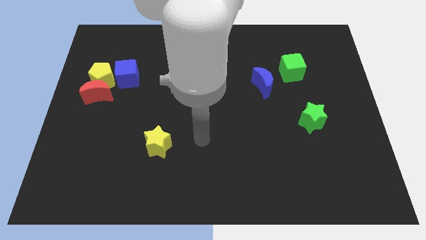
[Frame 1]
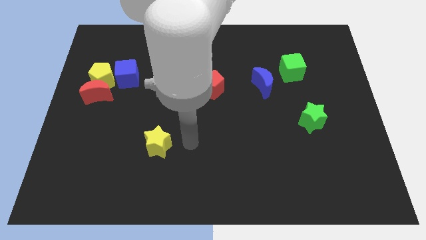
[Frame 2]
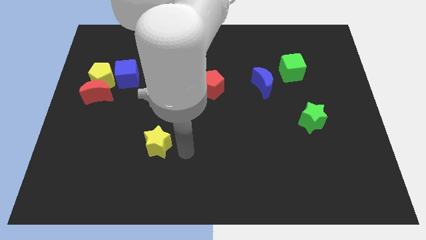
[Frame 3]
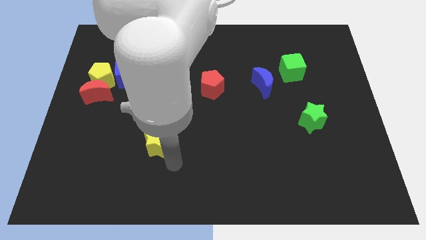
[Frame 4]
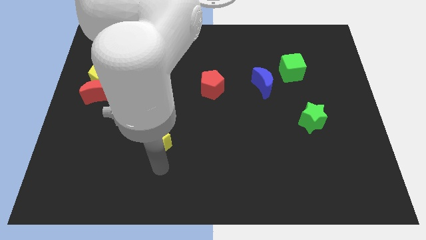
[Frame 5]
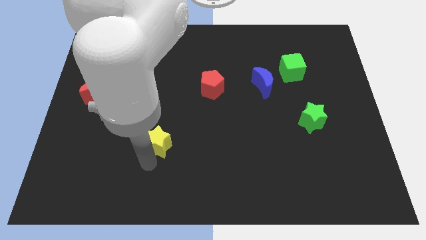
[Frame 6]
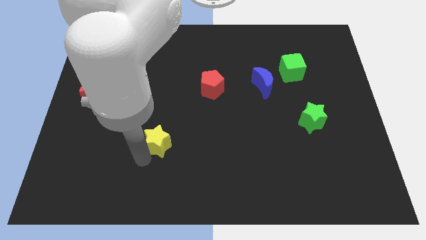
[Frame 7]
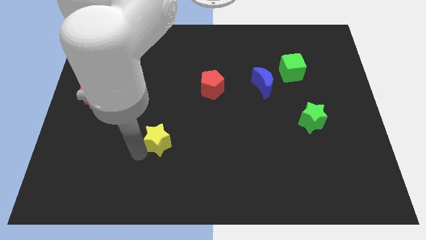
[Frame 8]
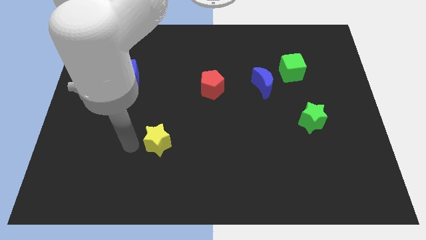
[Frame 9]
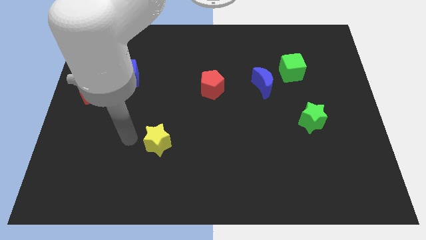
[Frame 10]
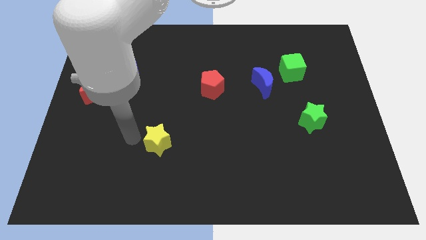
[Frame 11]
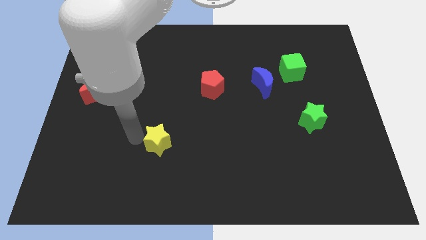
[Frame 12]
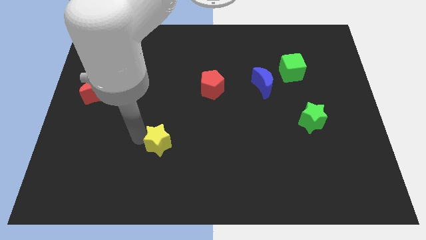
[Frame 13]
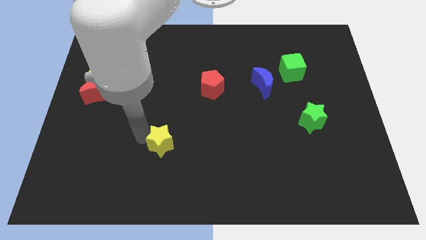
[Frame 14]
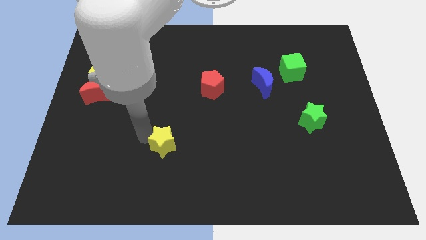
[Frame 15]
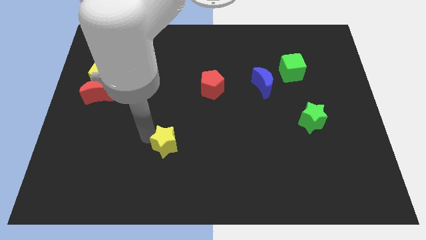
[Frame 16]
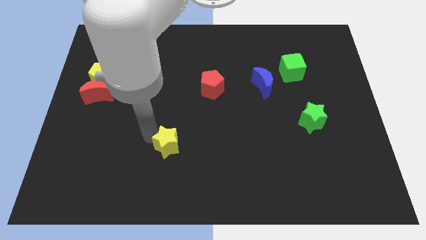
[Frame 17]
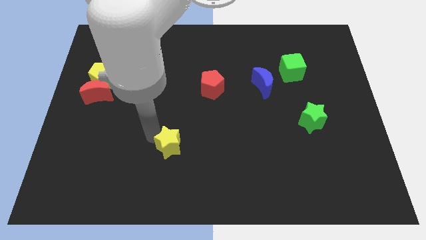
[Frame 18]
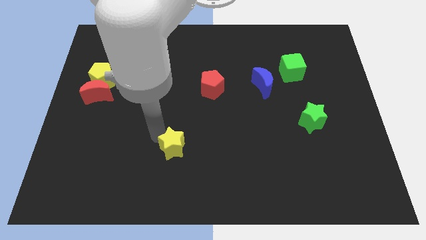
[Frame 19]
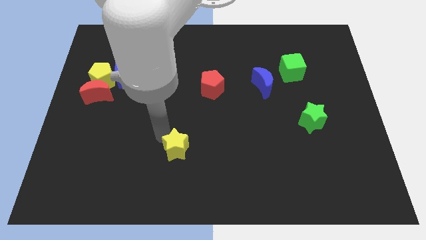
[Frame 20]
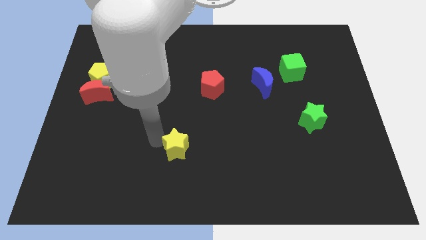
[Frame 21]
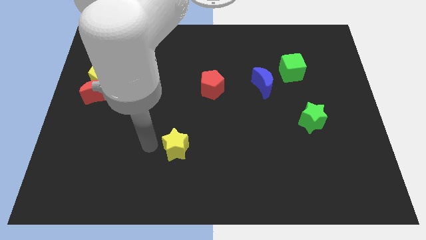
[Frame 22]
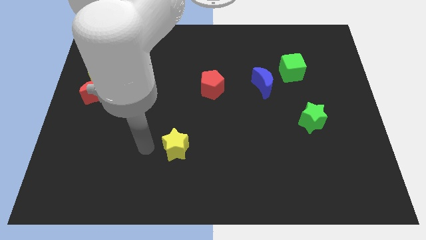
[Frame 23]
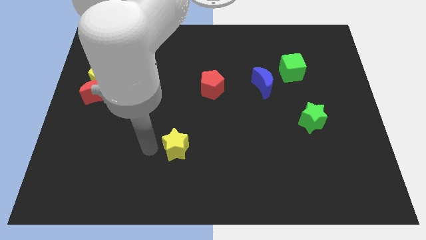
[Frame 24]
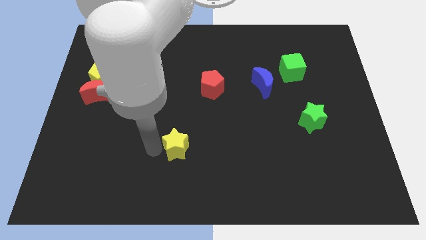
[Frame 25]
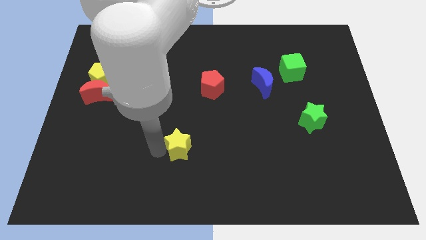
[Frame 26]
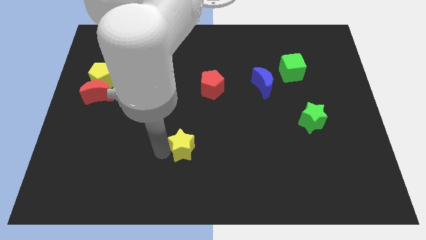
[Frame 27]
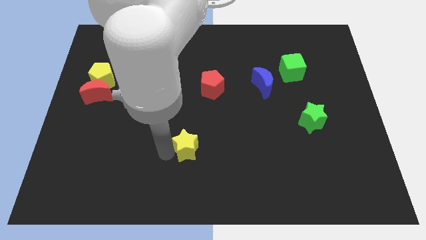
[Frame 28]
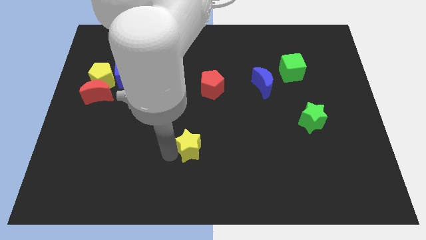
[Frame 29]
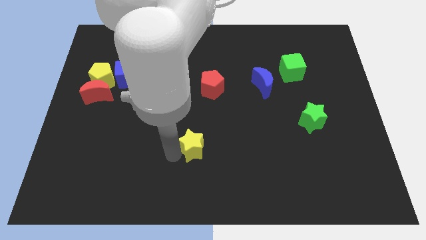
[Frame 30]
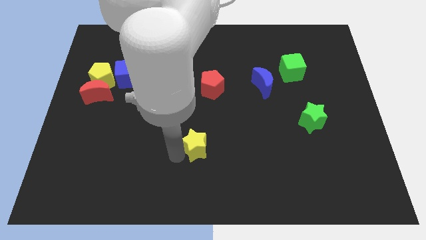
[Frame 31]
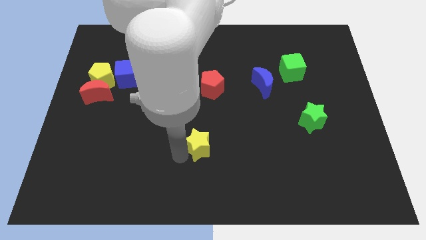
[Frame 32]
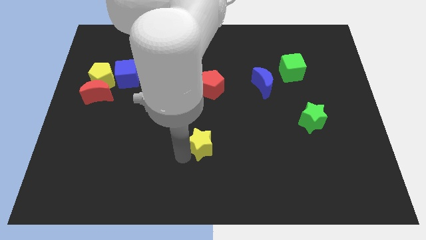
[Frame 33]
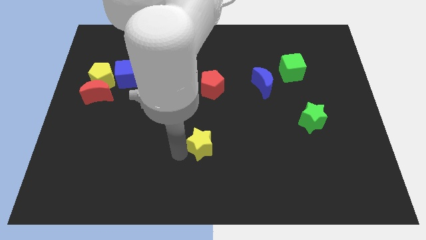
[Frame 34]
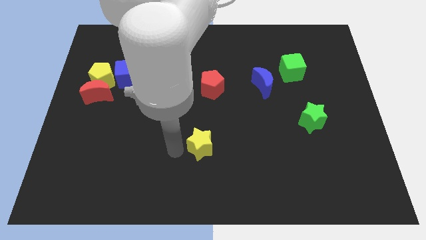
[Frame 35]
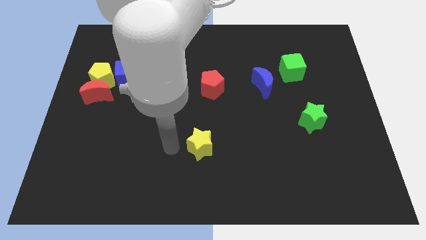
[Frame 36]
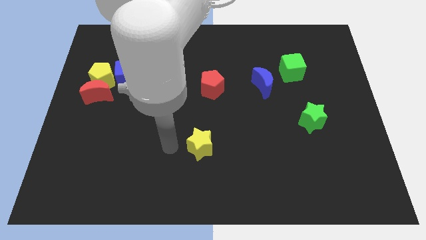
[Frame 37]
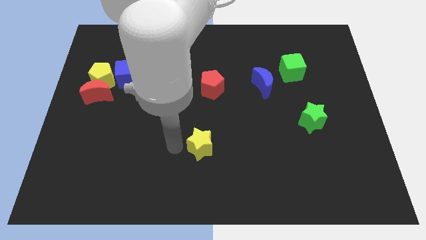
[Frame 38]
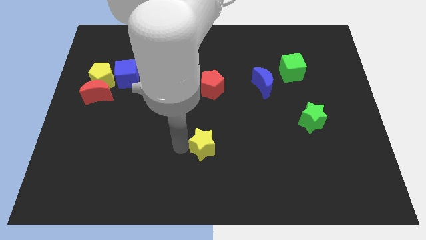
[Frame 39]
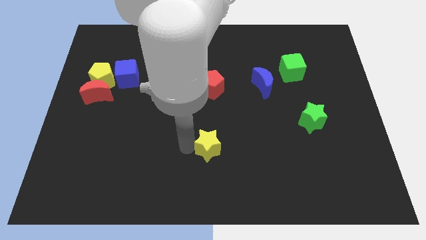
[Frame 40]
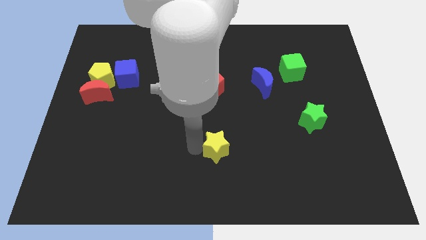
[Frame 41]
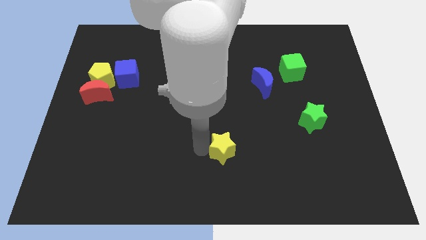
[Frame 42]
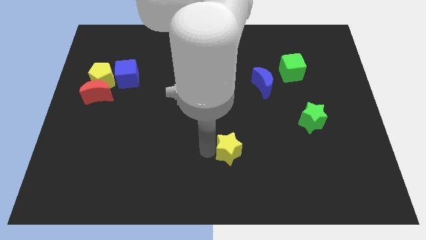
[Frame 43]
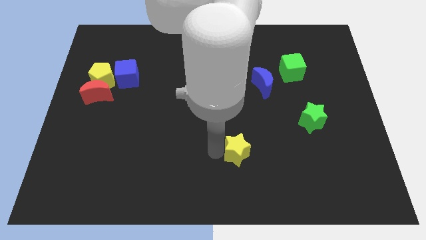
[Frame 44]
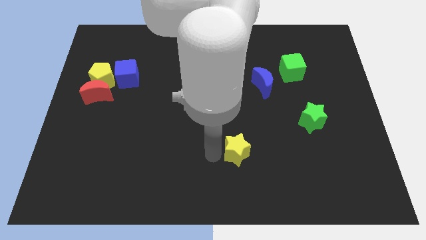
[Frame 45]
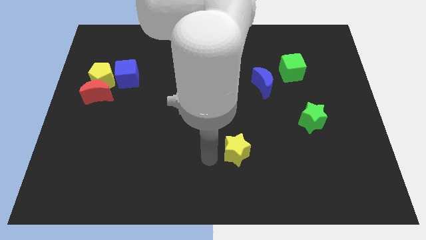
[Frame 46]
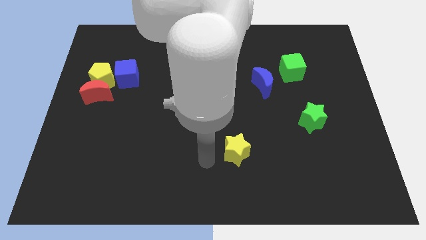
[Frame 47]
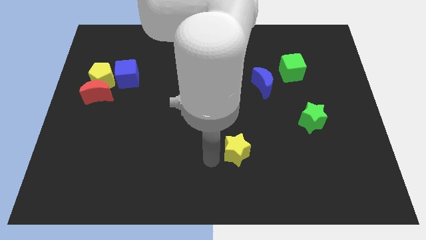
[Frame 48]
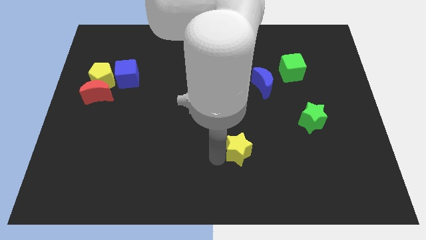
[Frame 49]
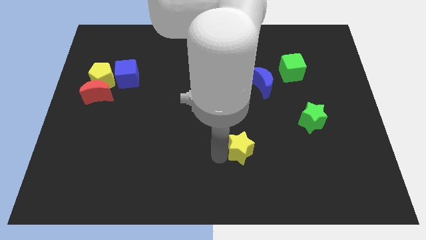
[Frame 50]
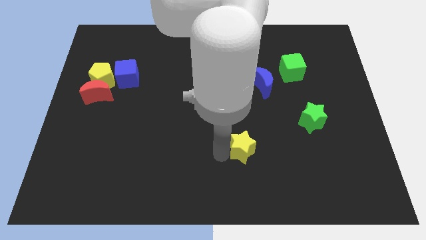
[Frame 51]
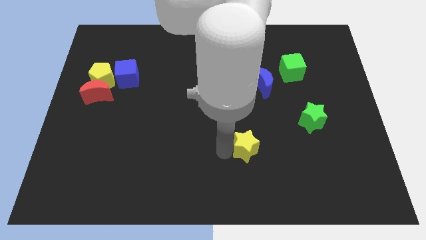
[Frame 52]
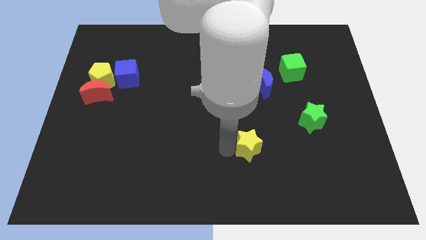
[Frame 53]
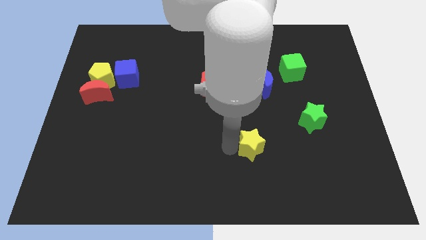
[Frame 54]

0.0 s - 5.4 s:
push the yellow star right

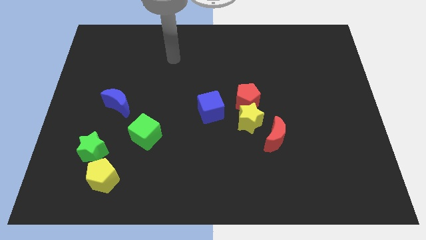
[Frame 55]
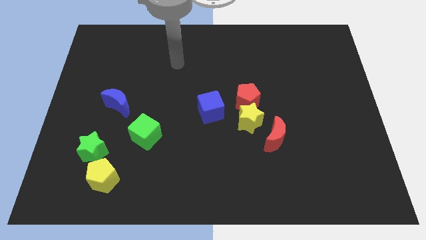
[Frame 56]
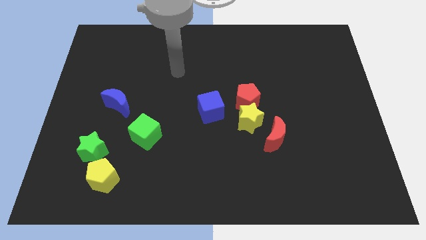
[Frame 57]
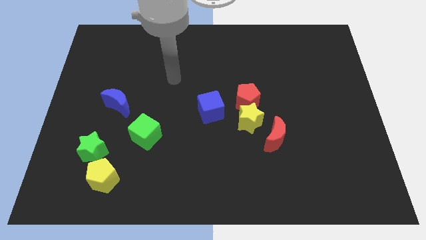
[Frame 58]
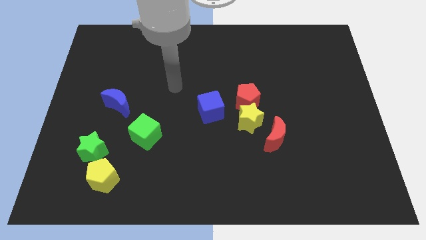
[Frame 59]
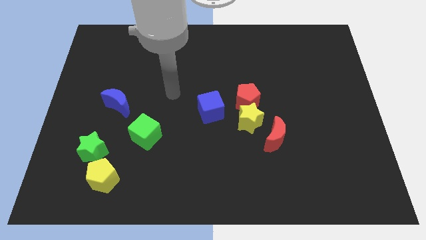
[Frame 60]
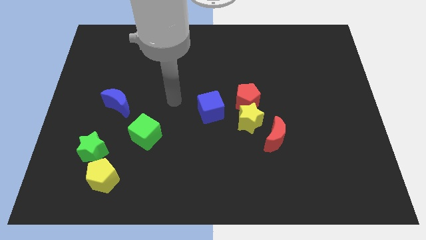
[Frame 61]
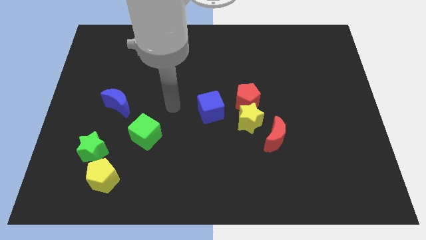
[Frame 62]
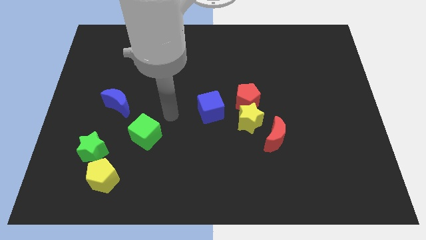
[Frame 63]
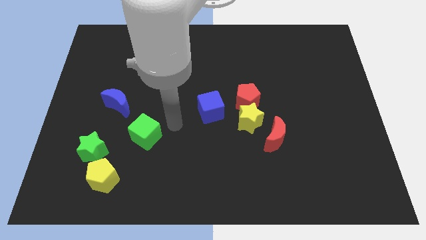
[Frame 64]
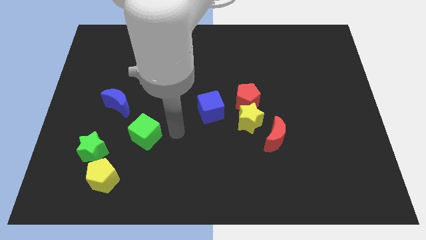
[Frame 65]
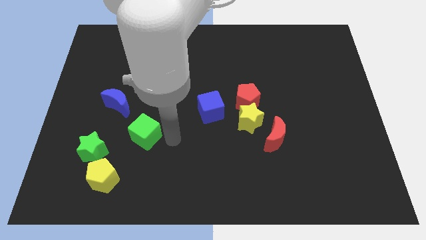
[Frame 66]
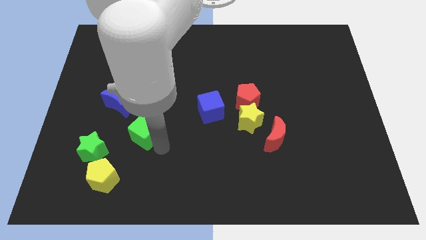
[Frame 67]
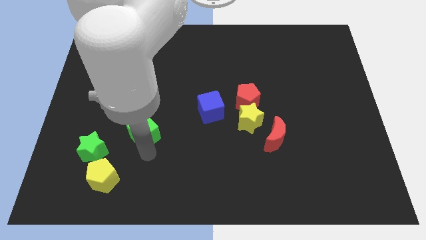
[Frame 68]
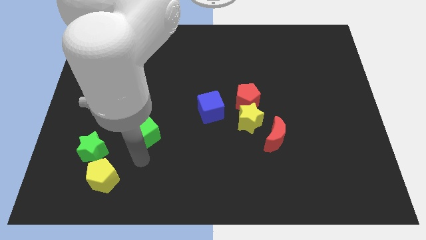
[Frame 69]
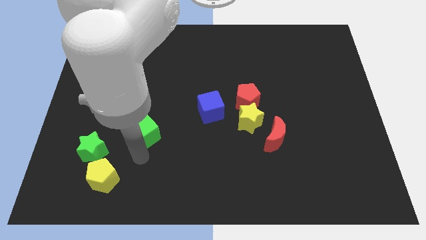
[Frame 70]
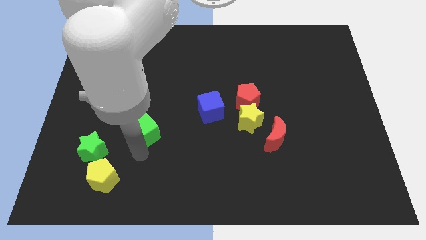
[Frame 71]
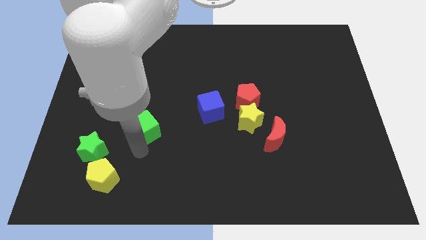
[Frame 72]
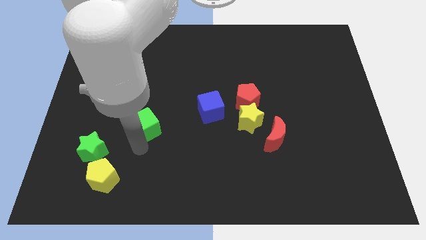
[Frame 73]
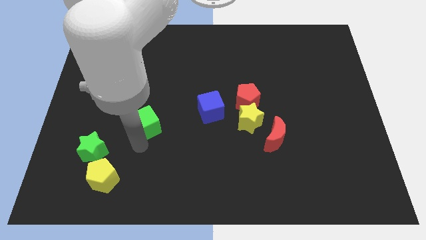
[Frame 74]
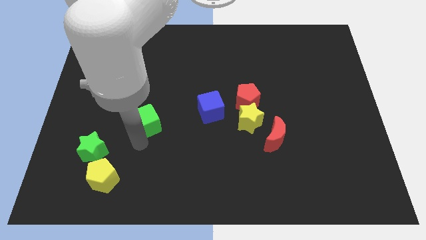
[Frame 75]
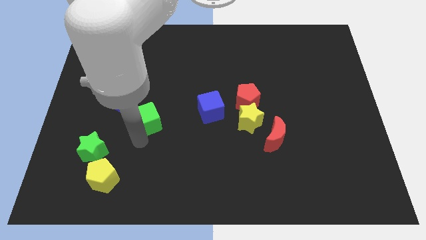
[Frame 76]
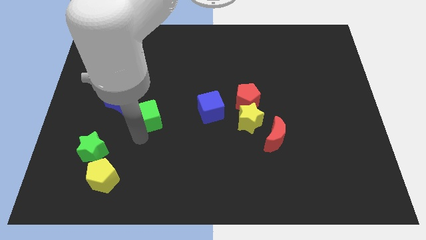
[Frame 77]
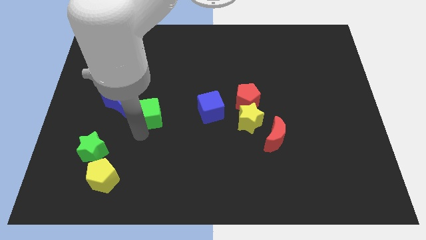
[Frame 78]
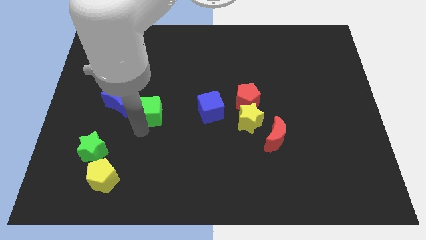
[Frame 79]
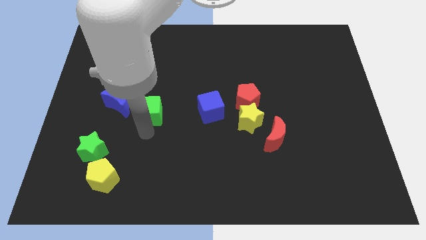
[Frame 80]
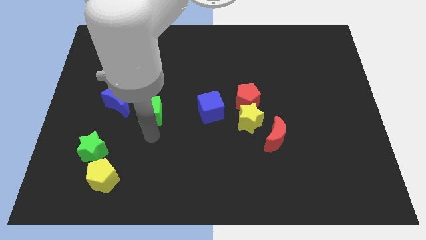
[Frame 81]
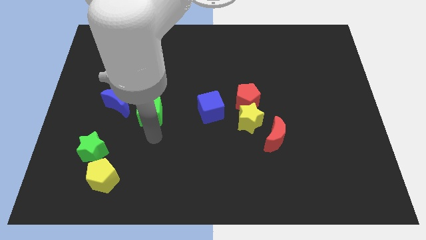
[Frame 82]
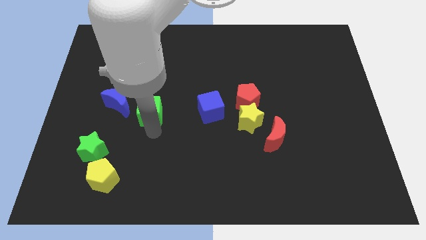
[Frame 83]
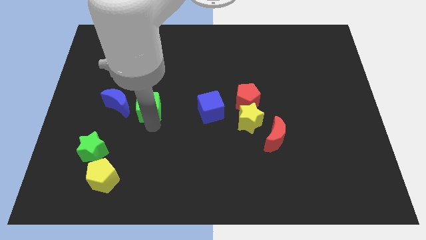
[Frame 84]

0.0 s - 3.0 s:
push the green cube up a little bit
